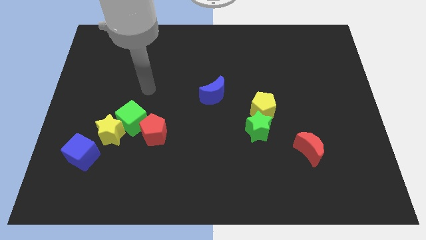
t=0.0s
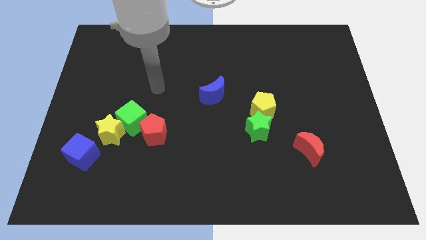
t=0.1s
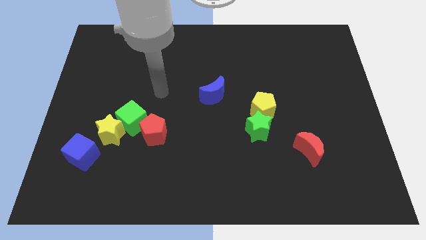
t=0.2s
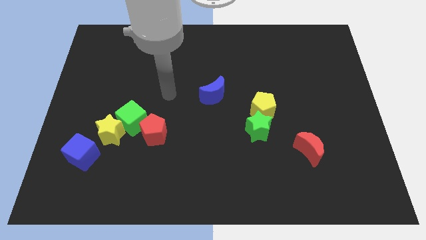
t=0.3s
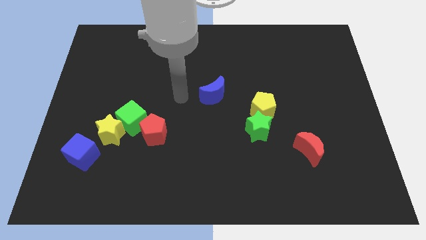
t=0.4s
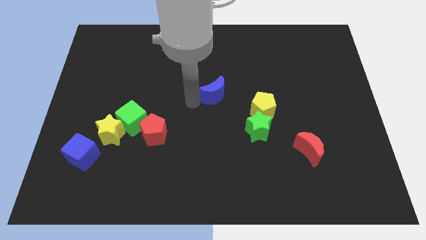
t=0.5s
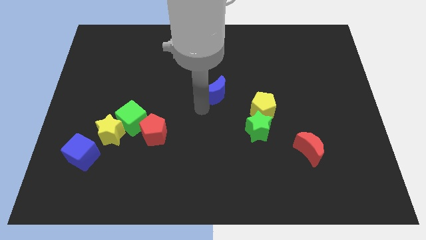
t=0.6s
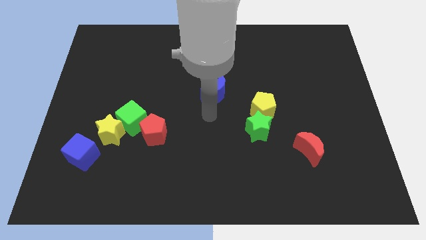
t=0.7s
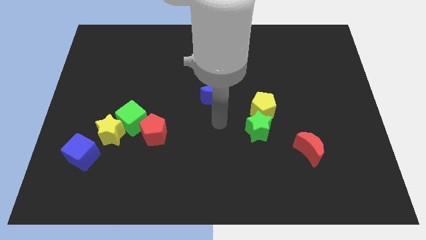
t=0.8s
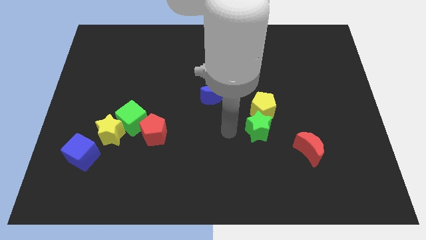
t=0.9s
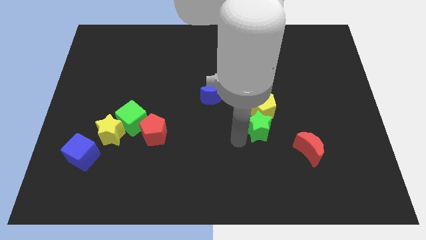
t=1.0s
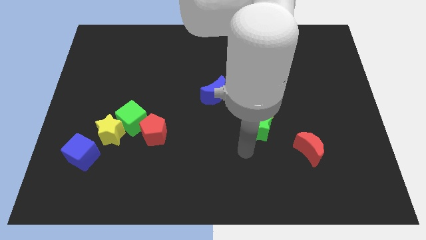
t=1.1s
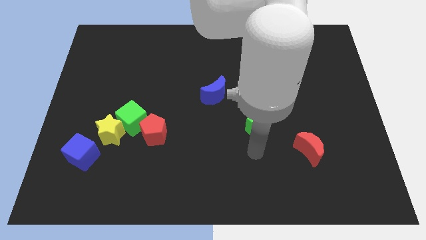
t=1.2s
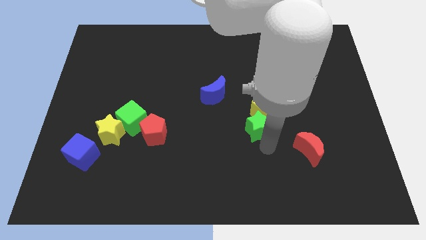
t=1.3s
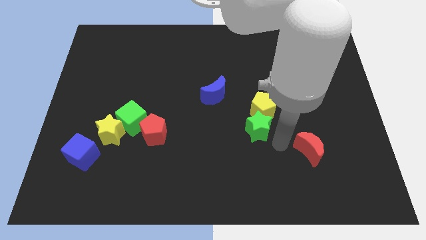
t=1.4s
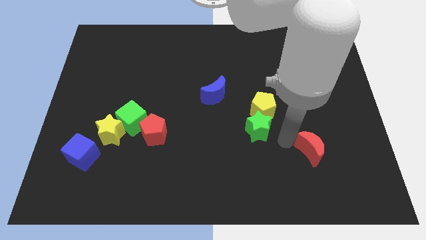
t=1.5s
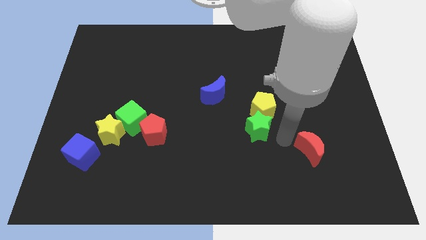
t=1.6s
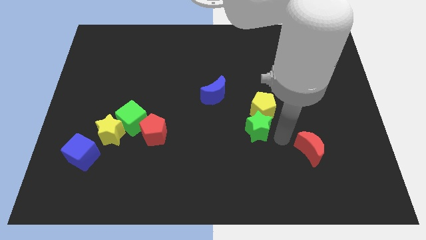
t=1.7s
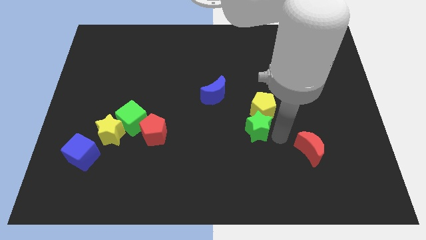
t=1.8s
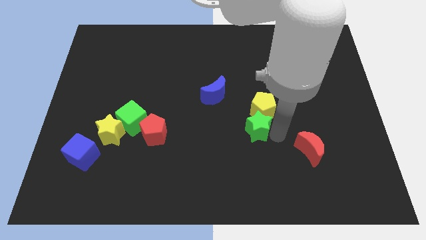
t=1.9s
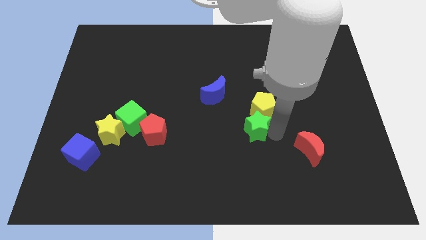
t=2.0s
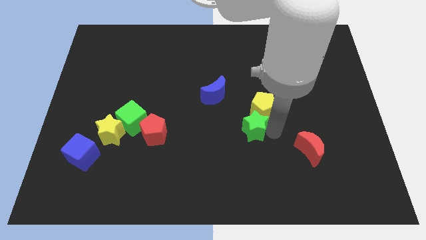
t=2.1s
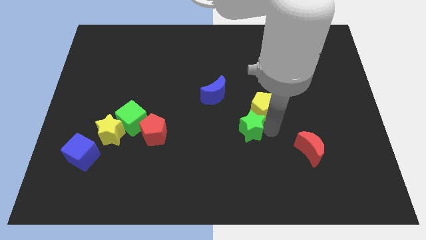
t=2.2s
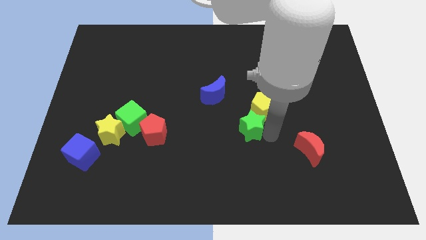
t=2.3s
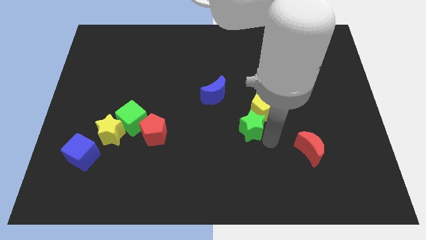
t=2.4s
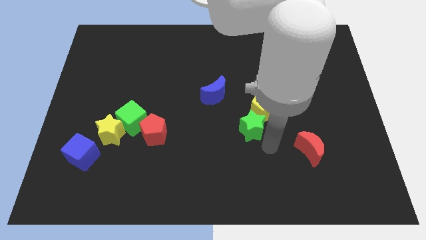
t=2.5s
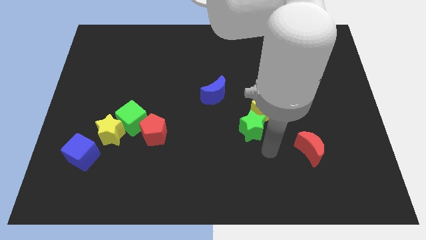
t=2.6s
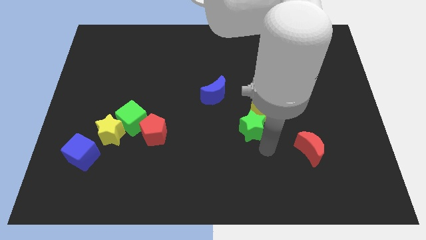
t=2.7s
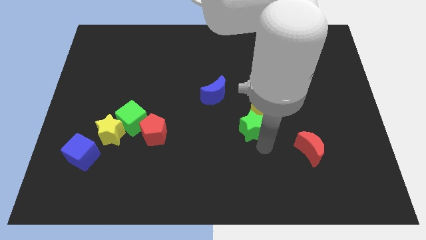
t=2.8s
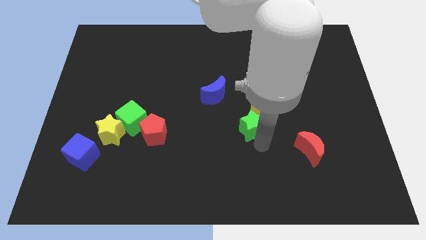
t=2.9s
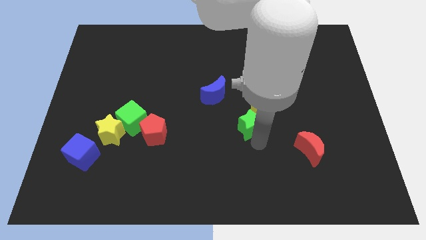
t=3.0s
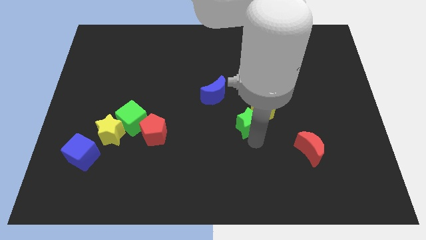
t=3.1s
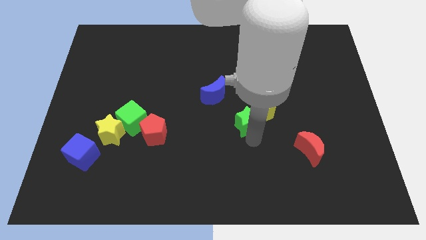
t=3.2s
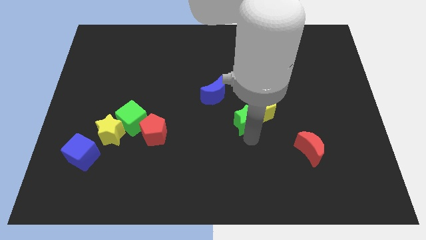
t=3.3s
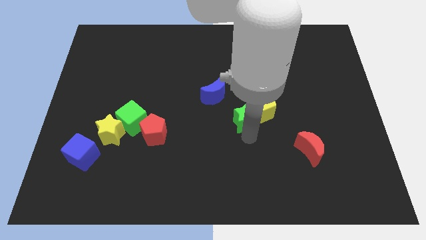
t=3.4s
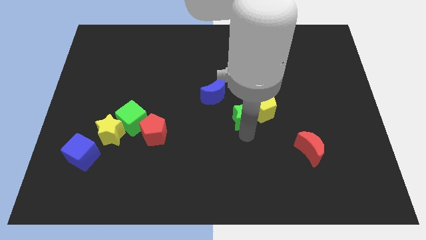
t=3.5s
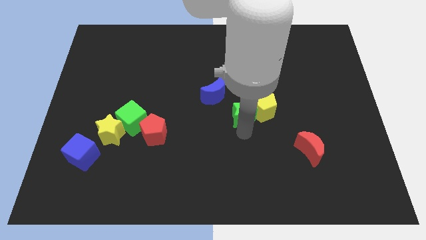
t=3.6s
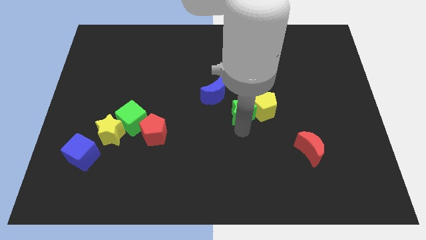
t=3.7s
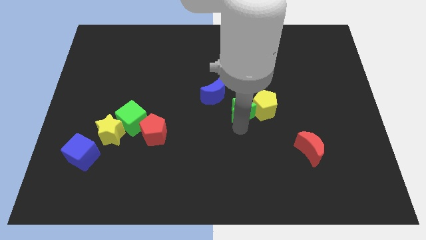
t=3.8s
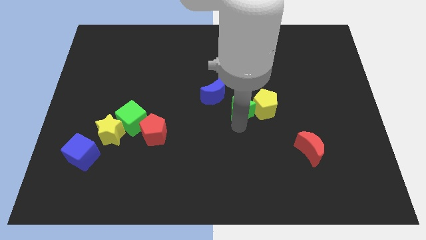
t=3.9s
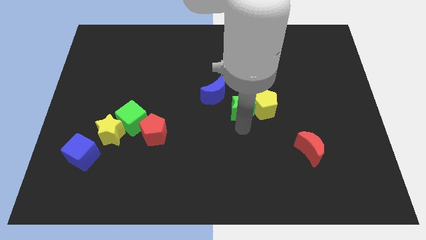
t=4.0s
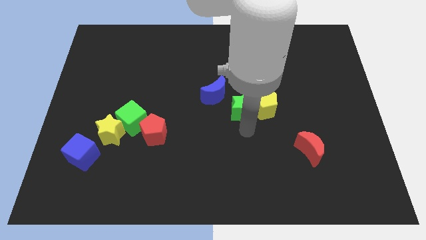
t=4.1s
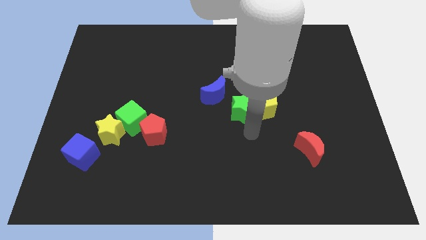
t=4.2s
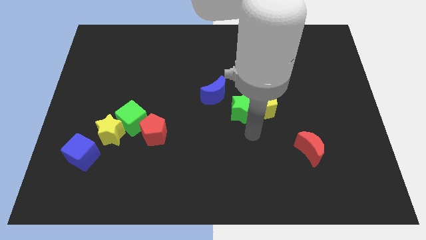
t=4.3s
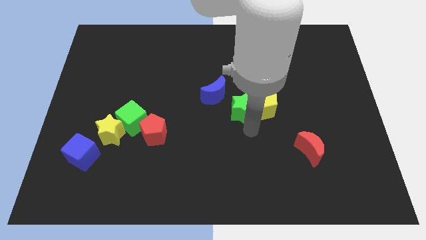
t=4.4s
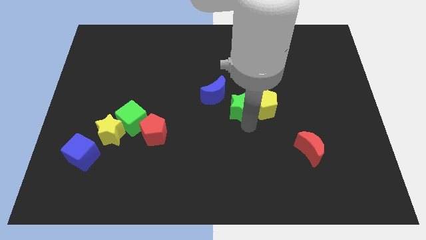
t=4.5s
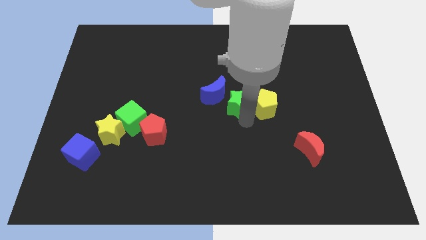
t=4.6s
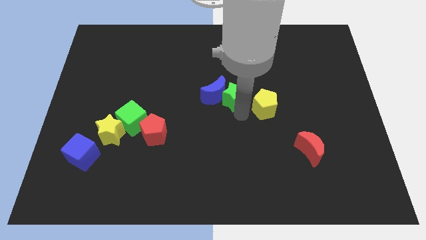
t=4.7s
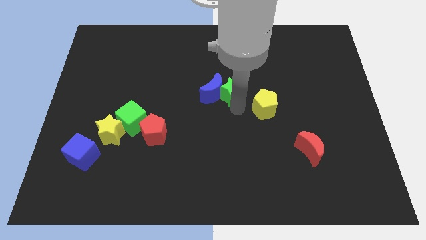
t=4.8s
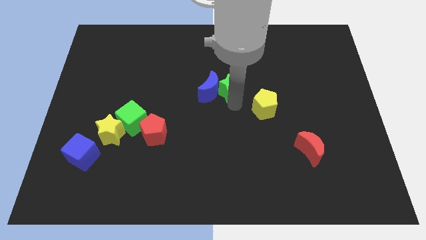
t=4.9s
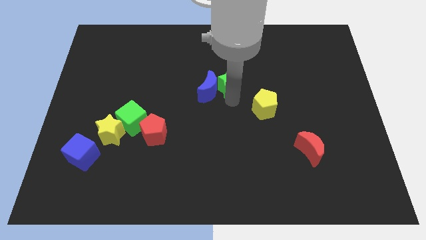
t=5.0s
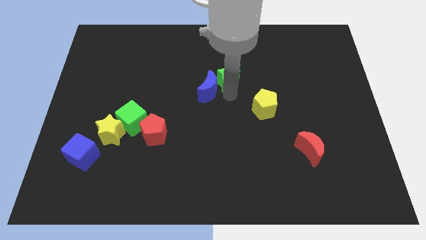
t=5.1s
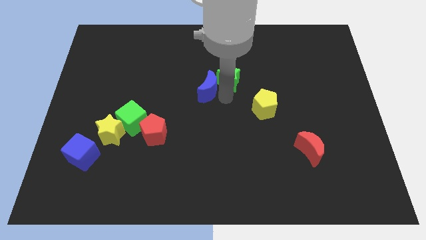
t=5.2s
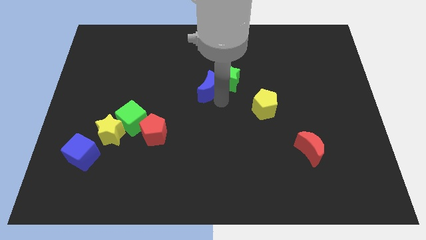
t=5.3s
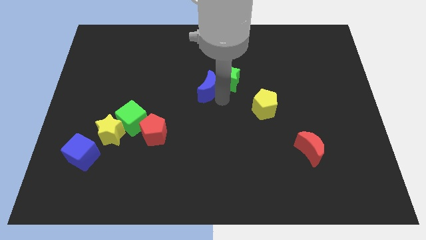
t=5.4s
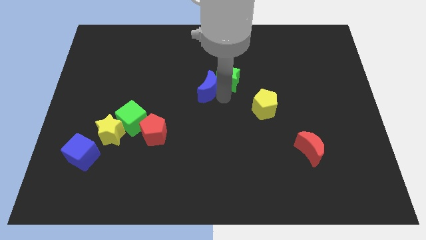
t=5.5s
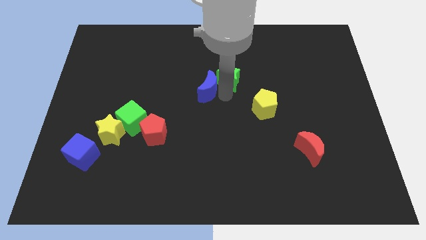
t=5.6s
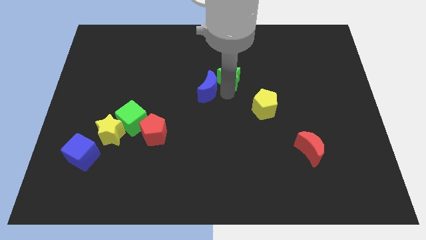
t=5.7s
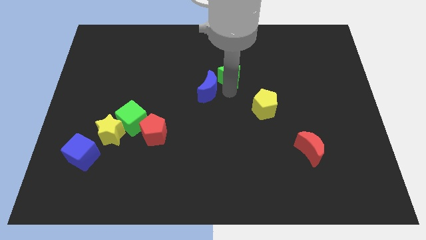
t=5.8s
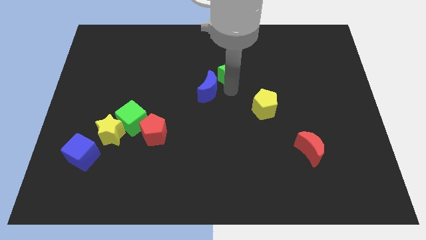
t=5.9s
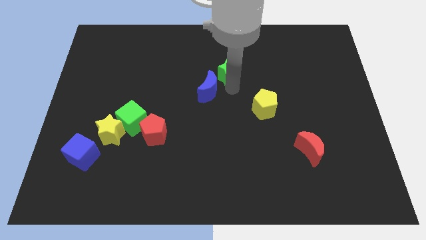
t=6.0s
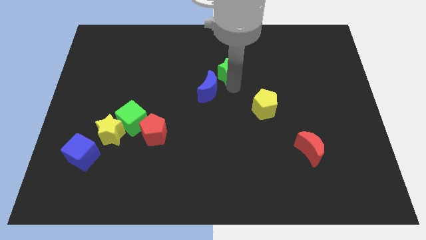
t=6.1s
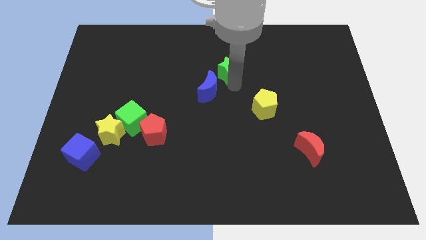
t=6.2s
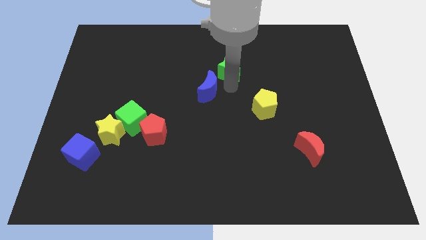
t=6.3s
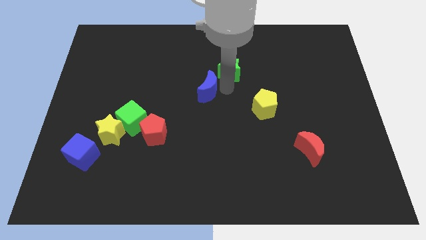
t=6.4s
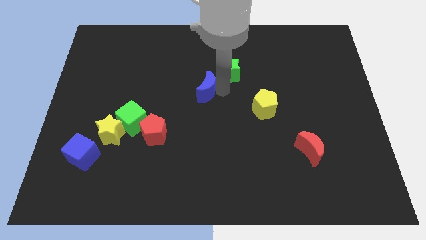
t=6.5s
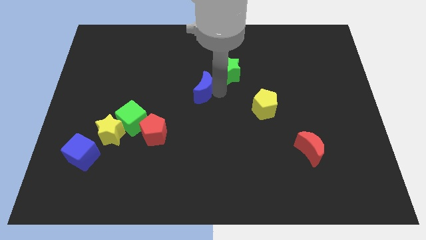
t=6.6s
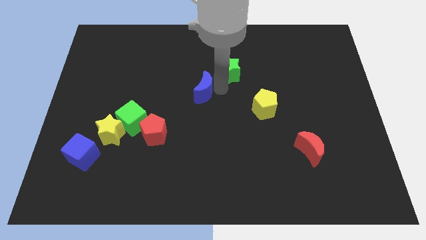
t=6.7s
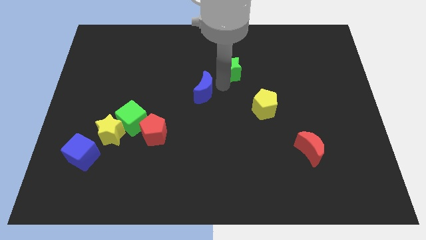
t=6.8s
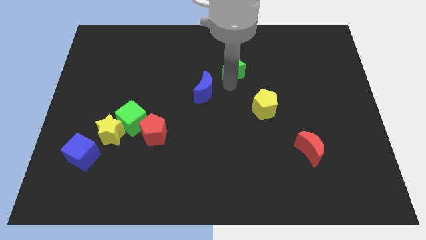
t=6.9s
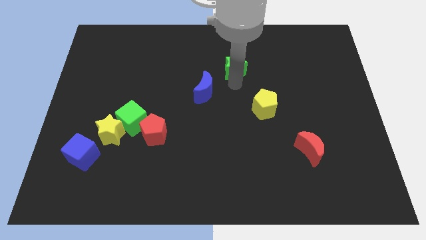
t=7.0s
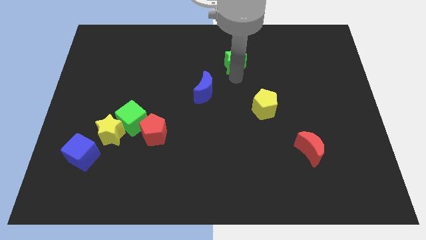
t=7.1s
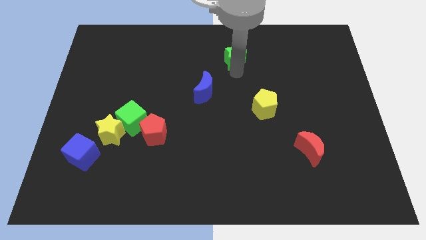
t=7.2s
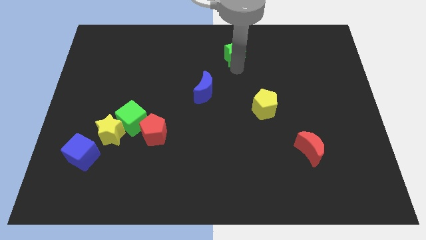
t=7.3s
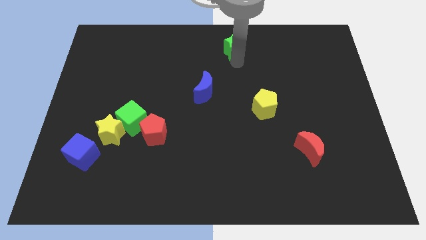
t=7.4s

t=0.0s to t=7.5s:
move the green star to the towards your base
